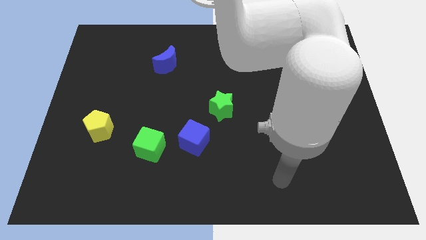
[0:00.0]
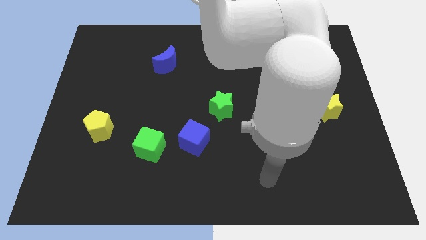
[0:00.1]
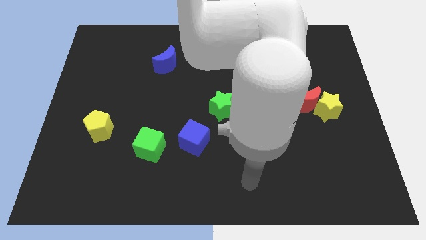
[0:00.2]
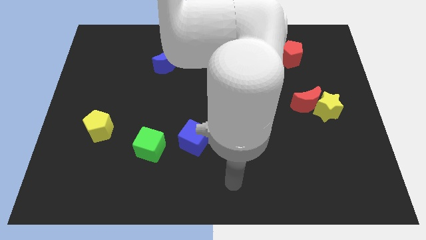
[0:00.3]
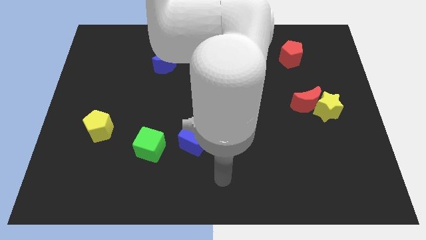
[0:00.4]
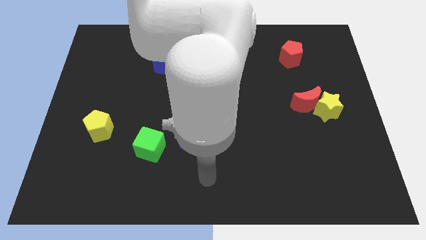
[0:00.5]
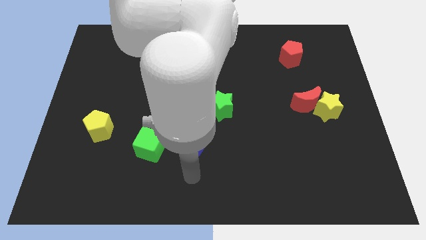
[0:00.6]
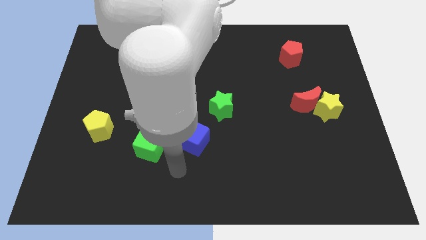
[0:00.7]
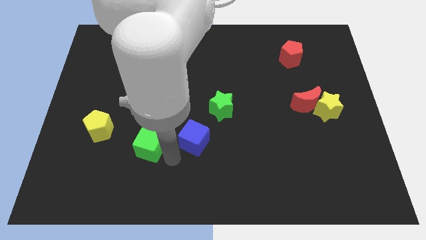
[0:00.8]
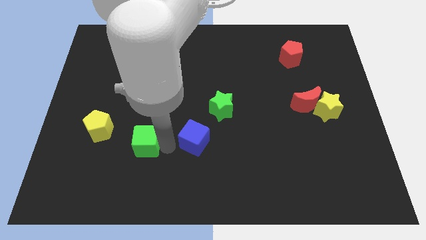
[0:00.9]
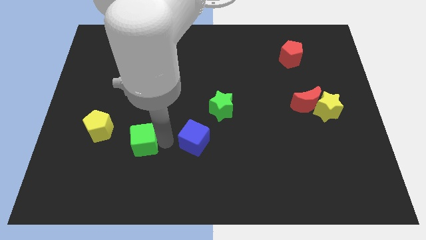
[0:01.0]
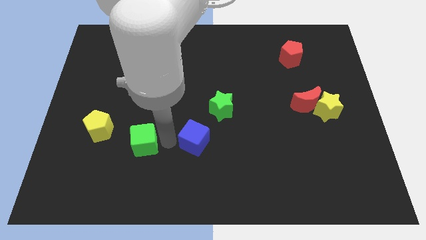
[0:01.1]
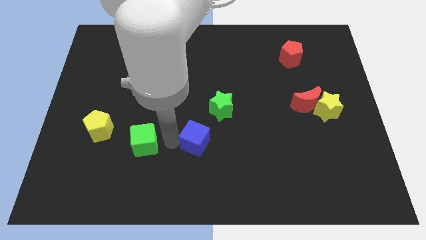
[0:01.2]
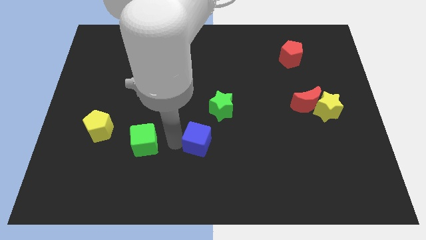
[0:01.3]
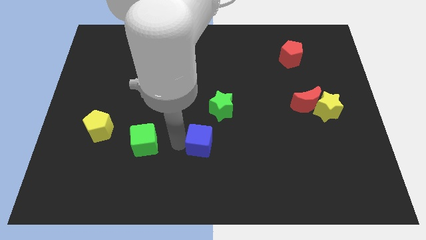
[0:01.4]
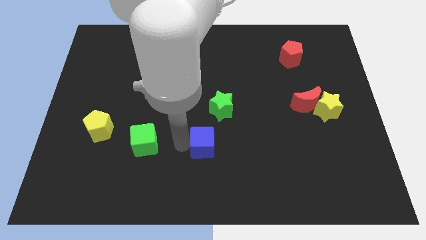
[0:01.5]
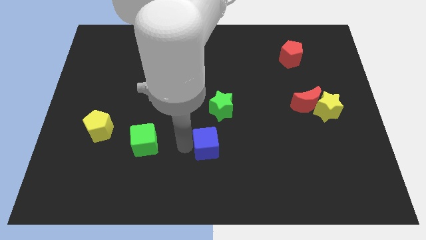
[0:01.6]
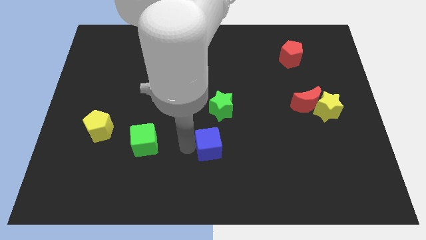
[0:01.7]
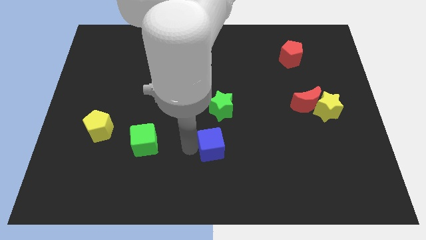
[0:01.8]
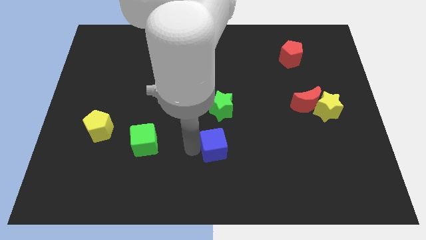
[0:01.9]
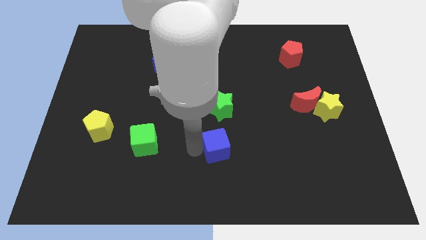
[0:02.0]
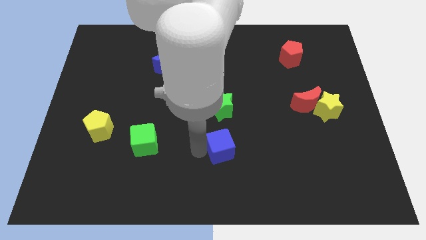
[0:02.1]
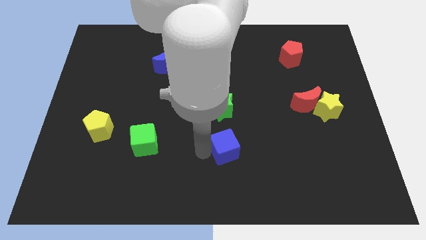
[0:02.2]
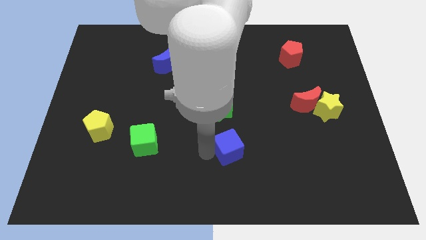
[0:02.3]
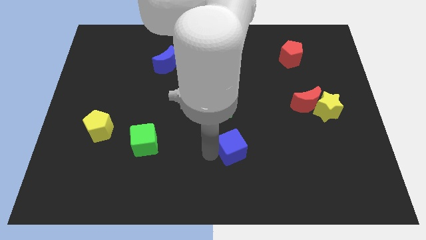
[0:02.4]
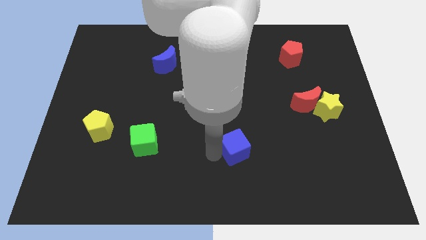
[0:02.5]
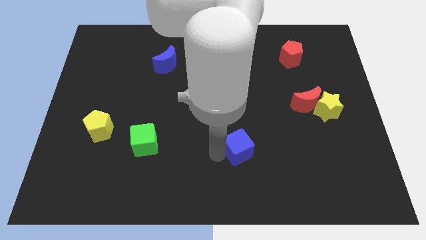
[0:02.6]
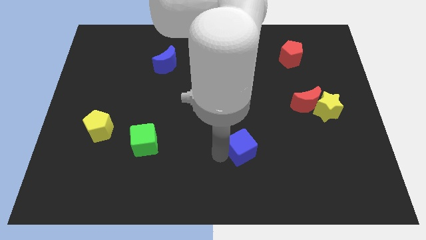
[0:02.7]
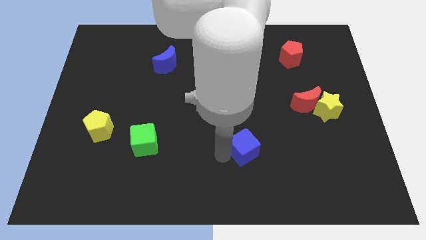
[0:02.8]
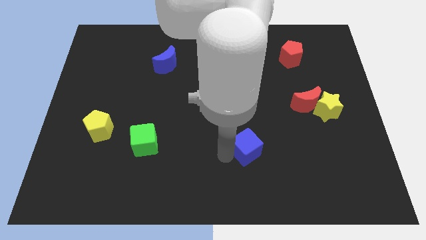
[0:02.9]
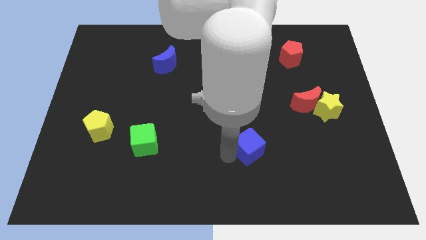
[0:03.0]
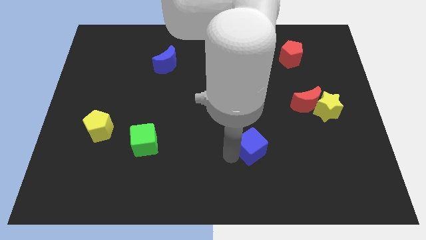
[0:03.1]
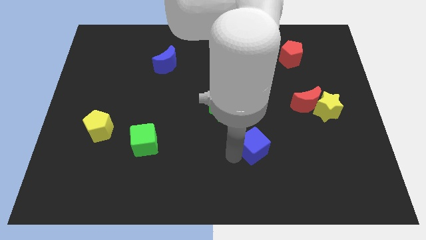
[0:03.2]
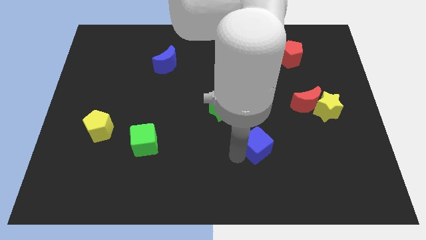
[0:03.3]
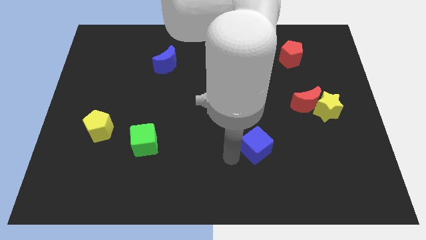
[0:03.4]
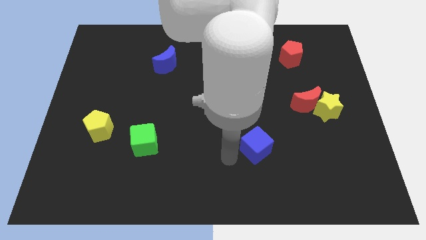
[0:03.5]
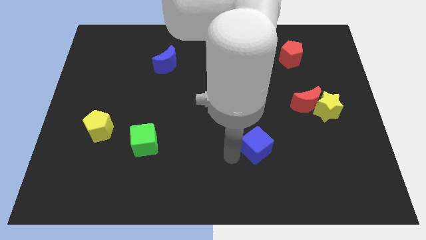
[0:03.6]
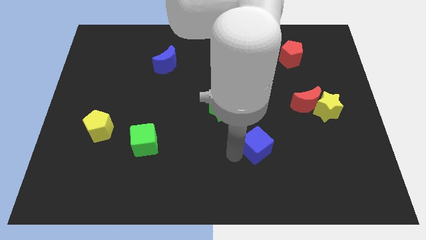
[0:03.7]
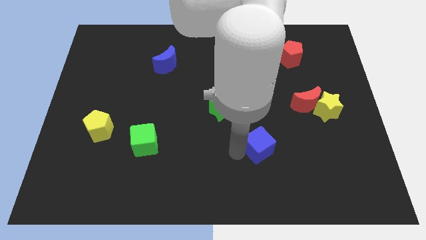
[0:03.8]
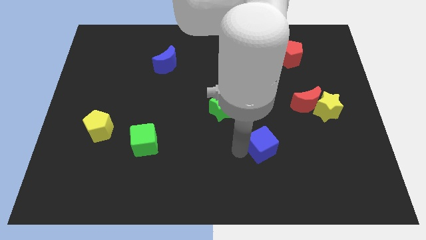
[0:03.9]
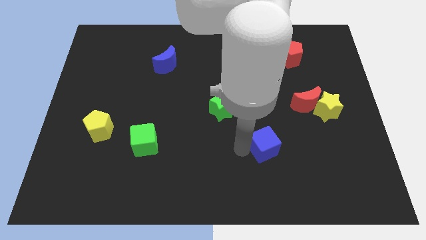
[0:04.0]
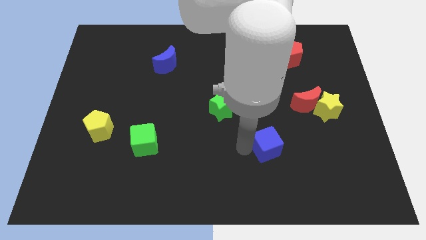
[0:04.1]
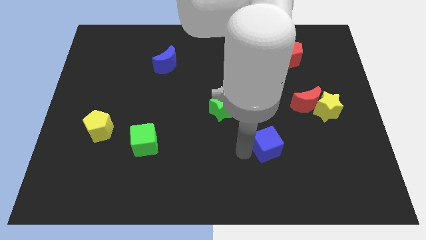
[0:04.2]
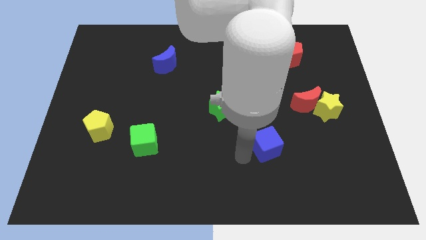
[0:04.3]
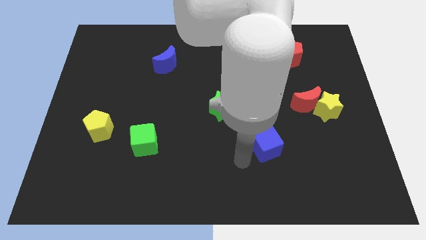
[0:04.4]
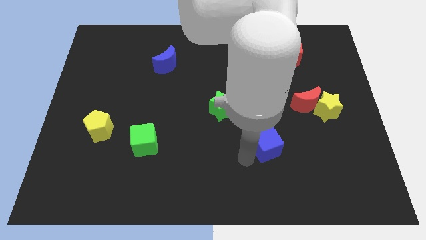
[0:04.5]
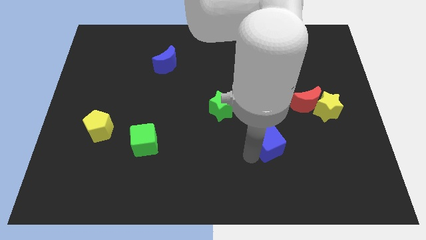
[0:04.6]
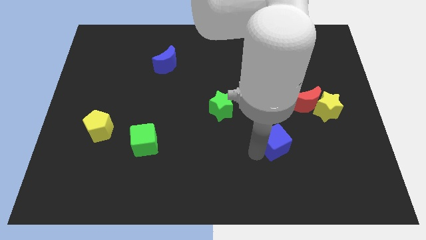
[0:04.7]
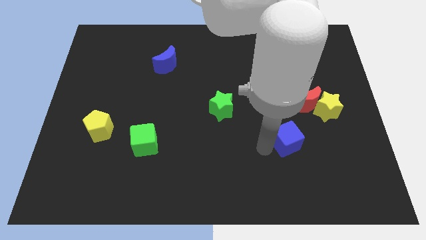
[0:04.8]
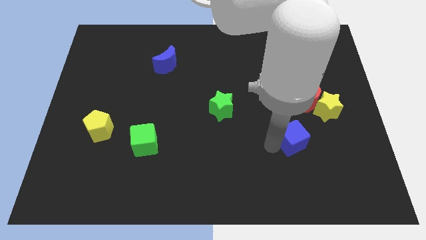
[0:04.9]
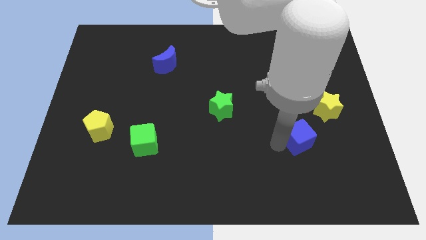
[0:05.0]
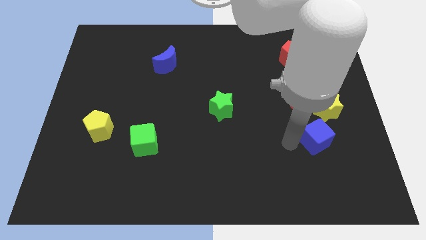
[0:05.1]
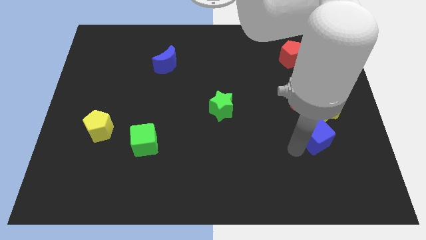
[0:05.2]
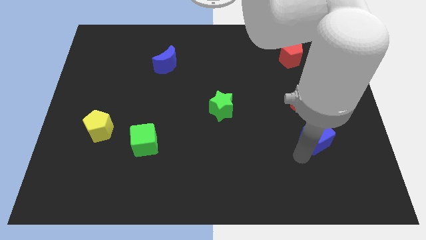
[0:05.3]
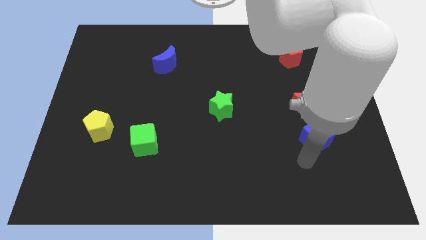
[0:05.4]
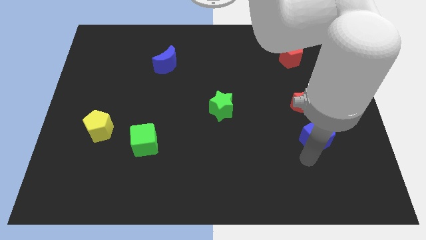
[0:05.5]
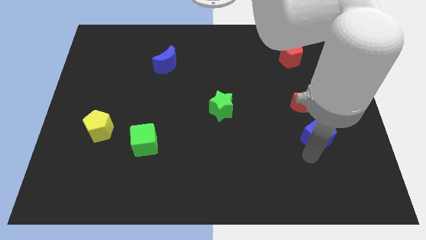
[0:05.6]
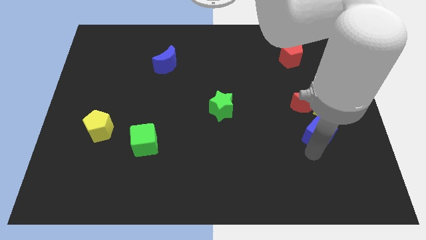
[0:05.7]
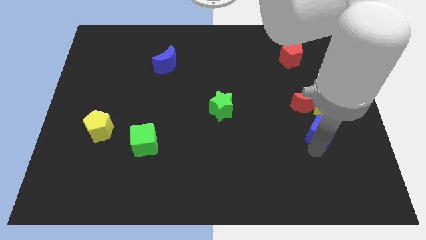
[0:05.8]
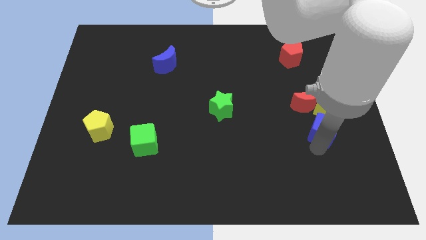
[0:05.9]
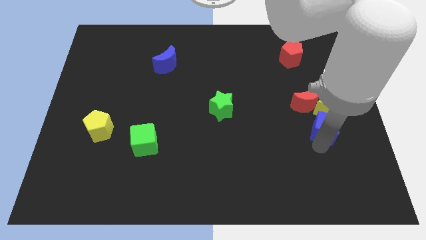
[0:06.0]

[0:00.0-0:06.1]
move the blue cube close to the yellow star

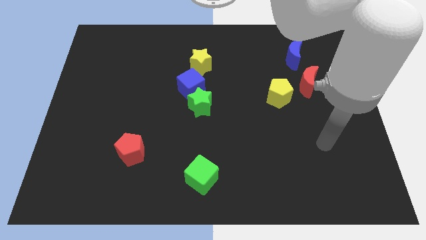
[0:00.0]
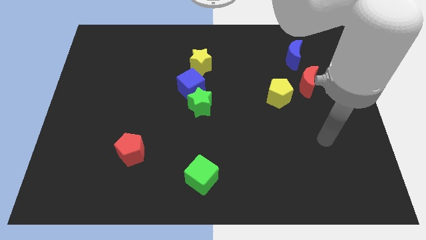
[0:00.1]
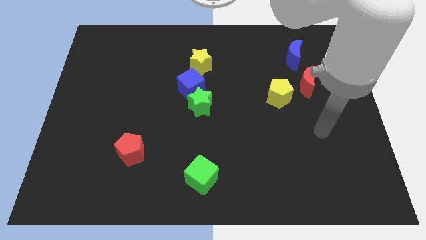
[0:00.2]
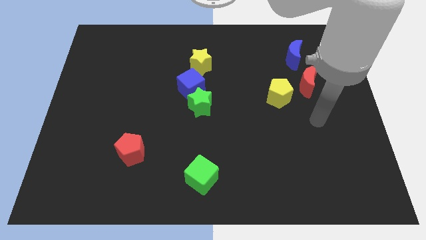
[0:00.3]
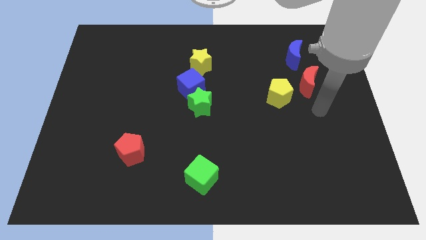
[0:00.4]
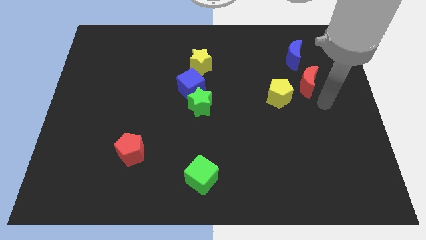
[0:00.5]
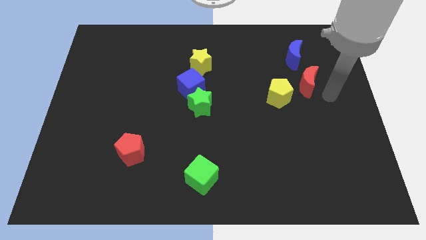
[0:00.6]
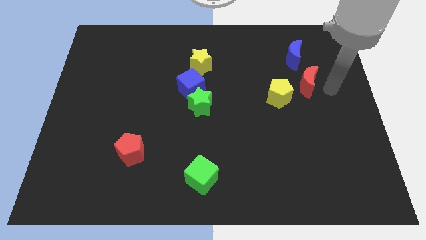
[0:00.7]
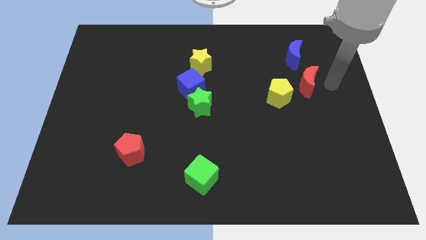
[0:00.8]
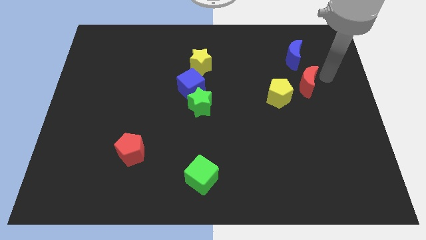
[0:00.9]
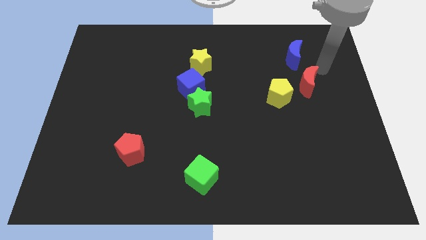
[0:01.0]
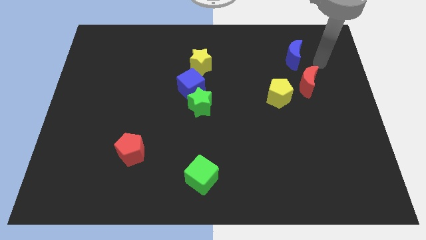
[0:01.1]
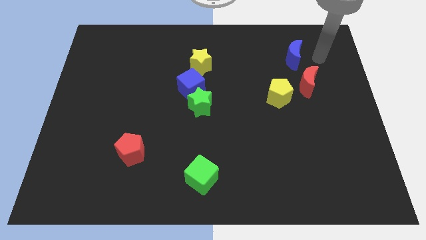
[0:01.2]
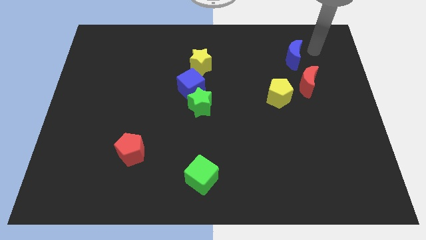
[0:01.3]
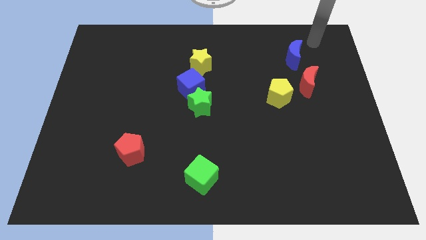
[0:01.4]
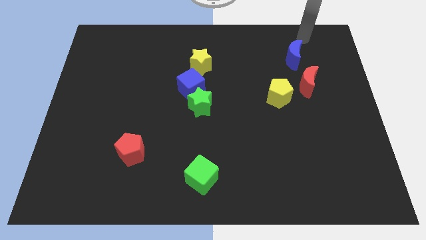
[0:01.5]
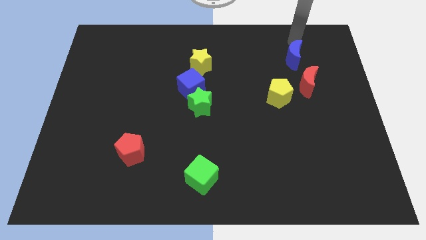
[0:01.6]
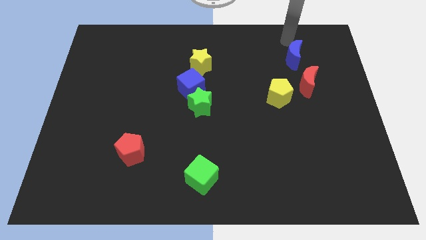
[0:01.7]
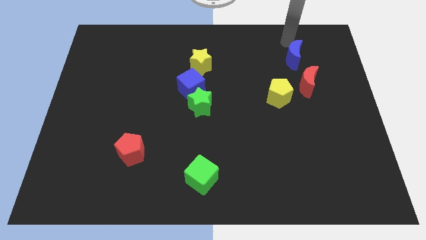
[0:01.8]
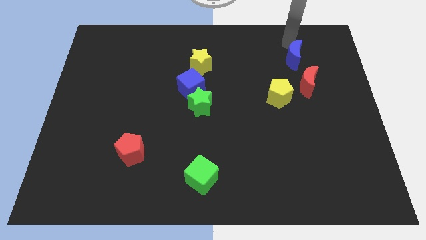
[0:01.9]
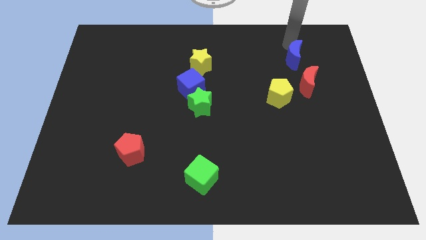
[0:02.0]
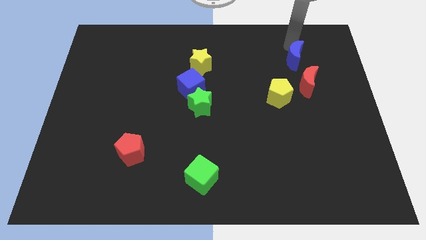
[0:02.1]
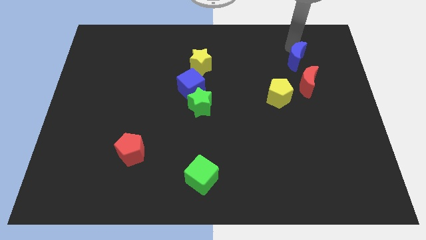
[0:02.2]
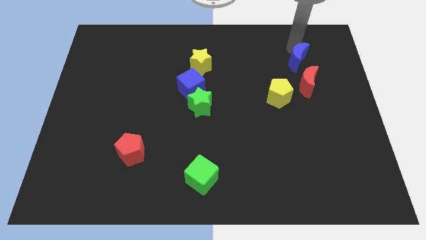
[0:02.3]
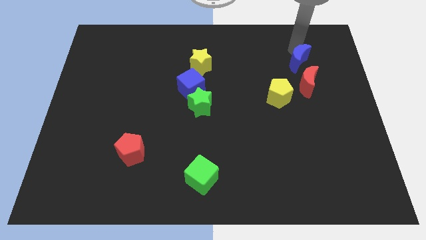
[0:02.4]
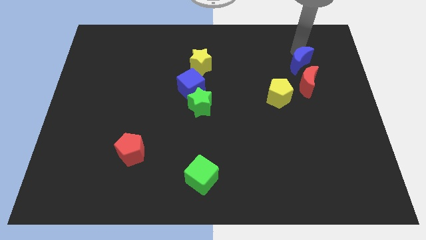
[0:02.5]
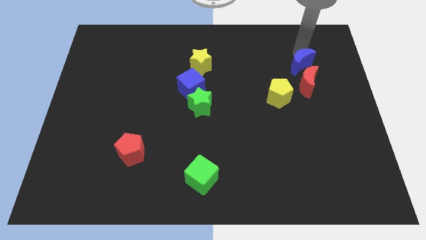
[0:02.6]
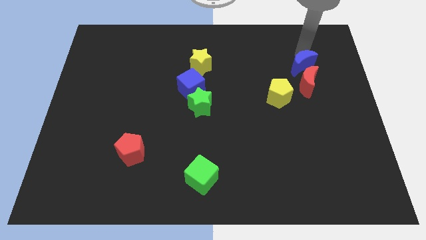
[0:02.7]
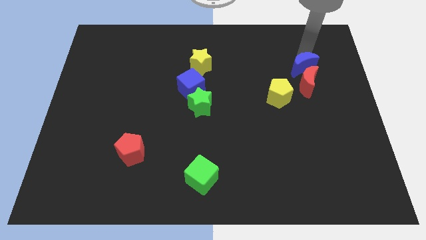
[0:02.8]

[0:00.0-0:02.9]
put the blue moon close to the red moon
